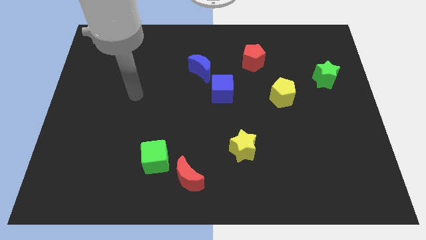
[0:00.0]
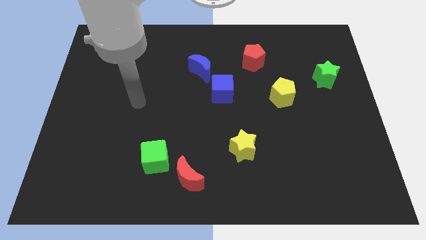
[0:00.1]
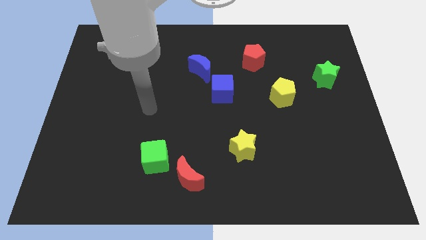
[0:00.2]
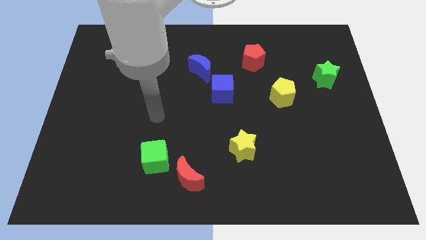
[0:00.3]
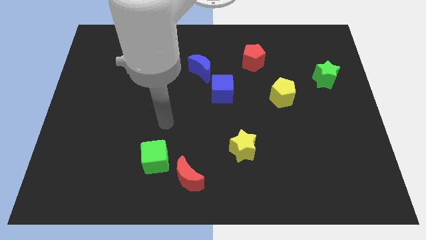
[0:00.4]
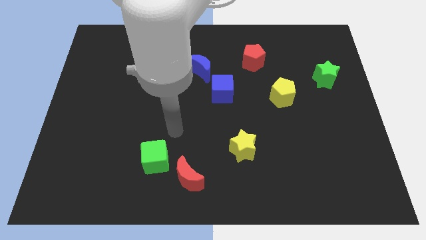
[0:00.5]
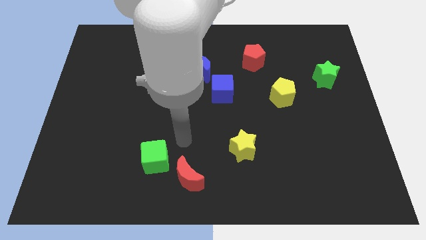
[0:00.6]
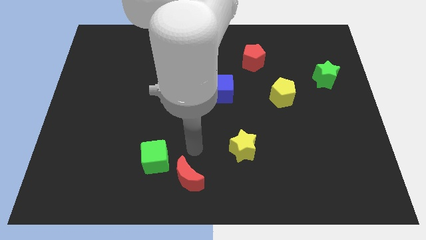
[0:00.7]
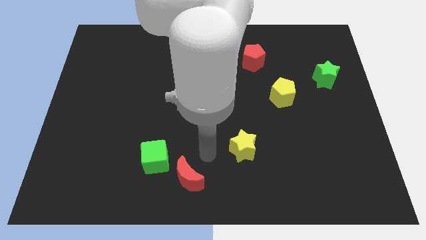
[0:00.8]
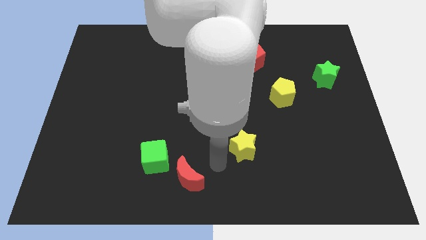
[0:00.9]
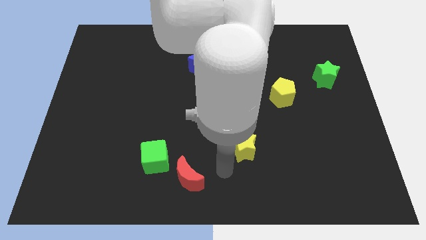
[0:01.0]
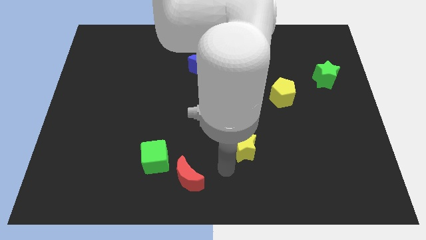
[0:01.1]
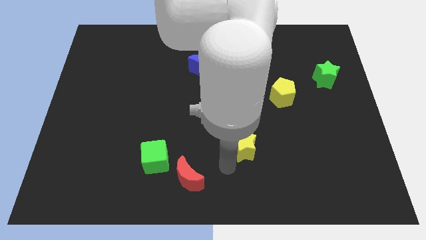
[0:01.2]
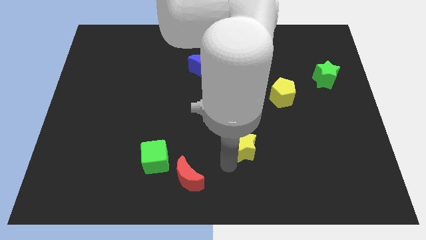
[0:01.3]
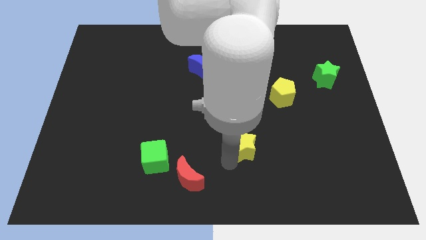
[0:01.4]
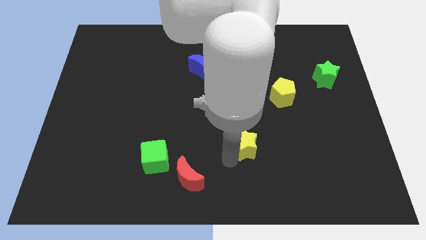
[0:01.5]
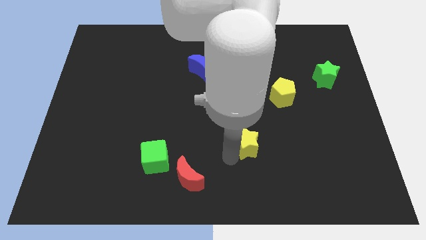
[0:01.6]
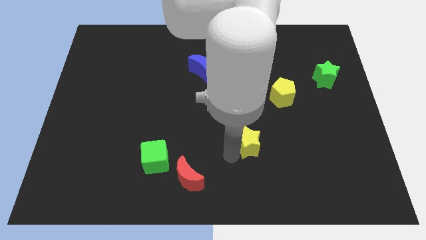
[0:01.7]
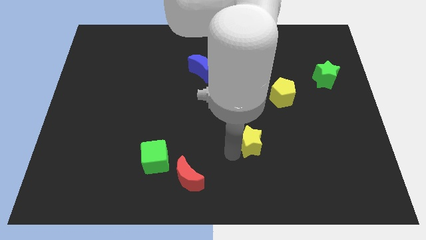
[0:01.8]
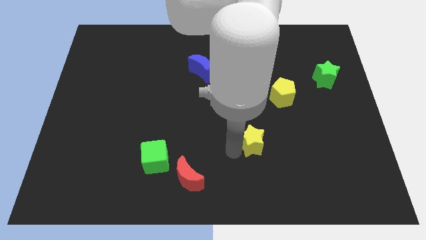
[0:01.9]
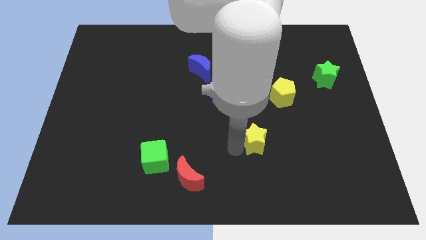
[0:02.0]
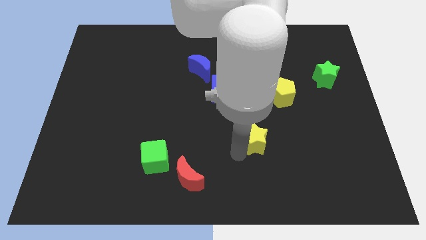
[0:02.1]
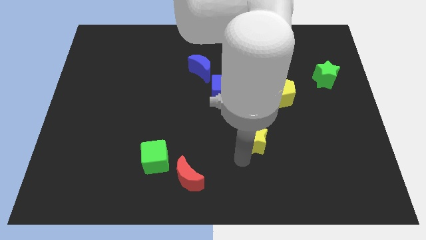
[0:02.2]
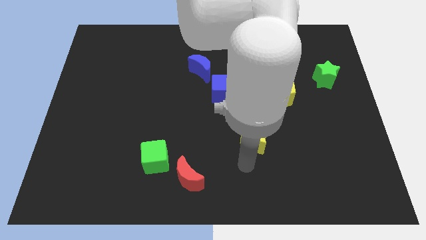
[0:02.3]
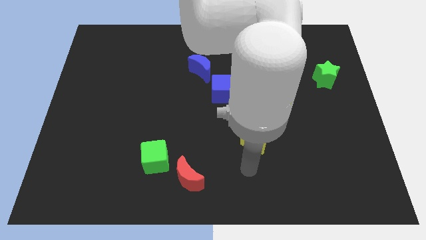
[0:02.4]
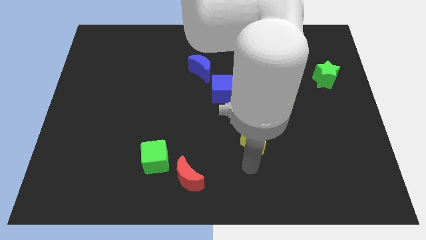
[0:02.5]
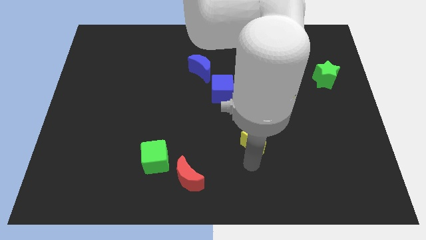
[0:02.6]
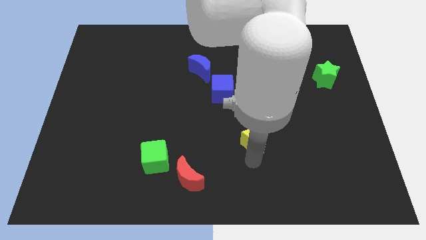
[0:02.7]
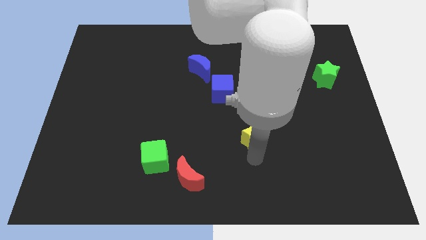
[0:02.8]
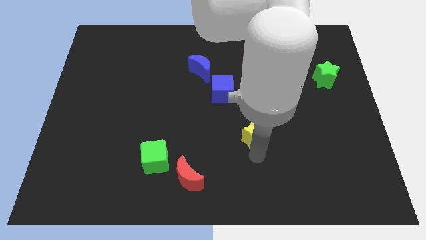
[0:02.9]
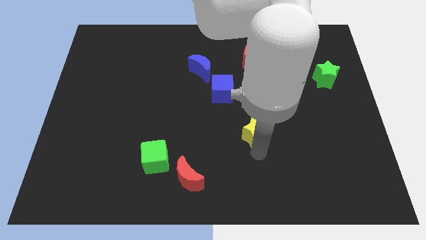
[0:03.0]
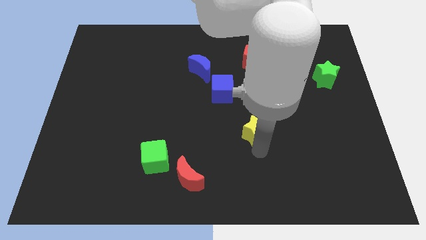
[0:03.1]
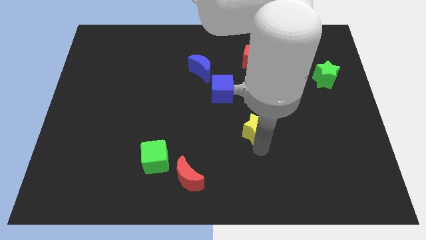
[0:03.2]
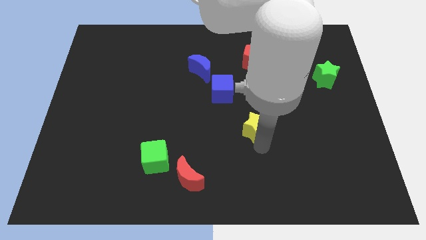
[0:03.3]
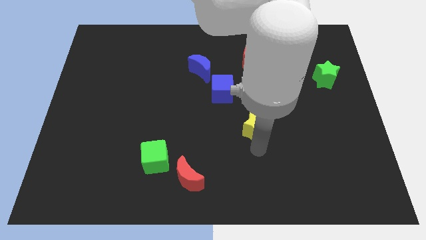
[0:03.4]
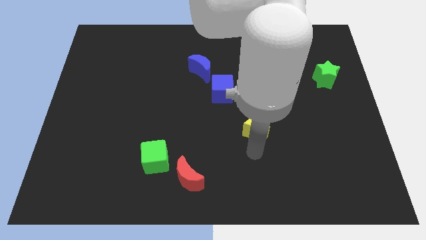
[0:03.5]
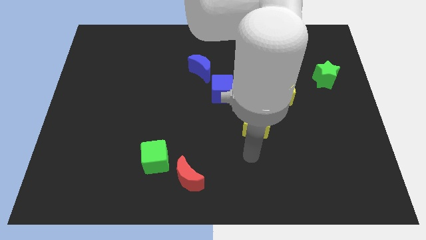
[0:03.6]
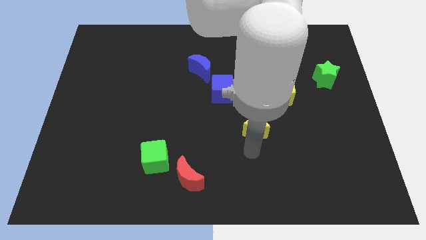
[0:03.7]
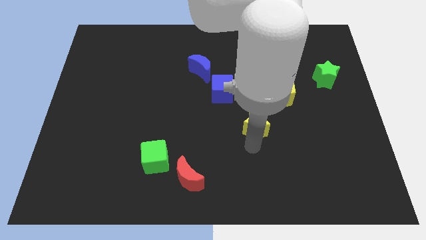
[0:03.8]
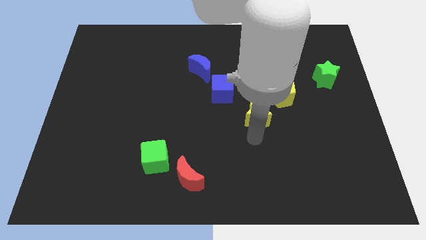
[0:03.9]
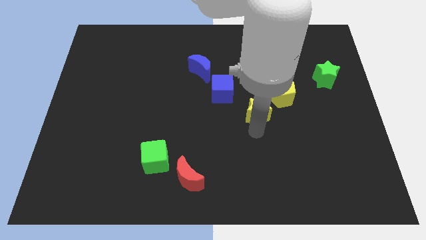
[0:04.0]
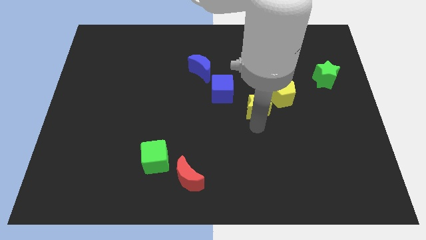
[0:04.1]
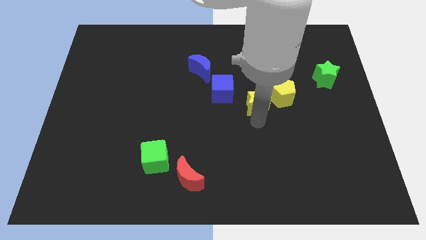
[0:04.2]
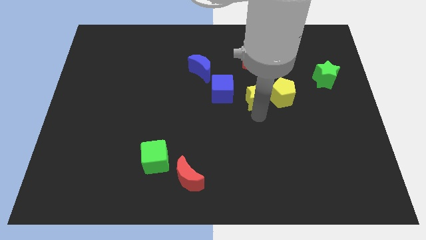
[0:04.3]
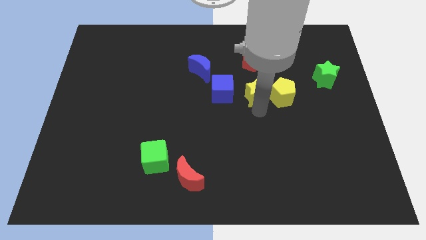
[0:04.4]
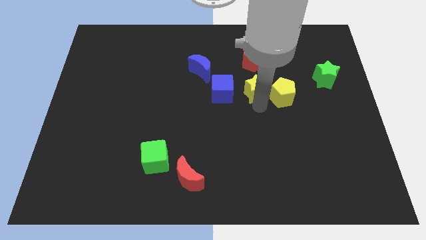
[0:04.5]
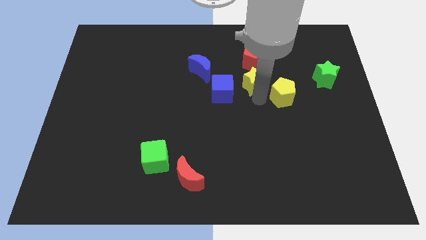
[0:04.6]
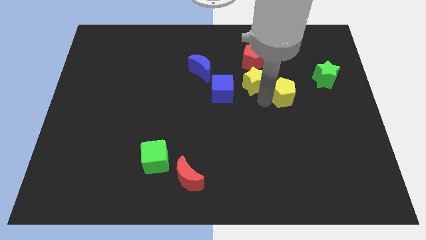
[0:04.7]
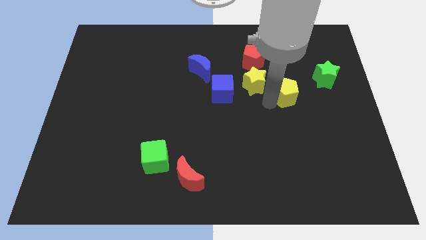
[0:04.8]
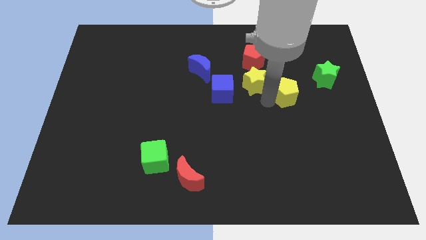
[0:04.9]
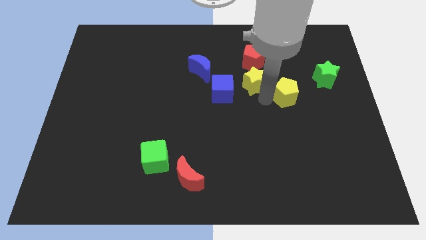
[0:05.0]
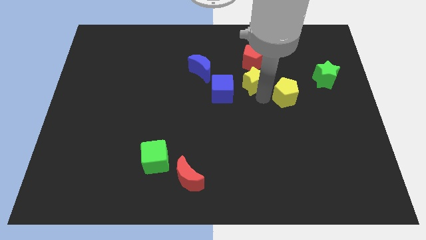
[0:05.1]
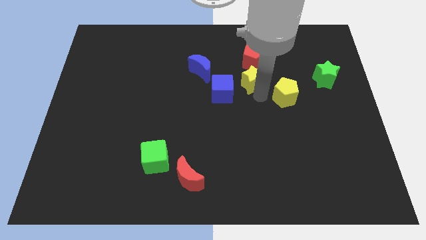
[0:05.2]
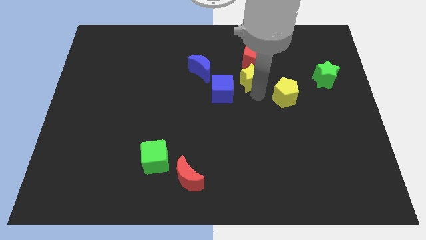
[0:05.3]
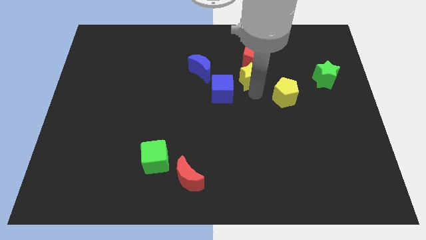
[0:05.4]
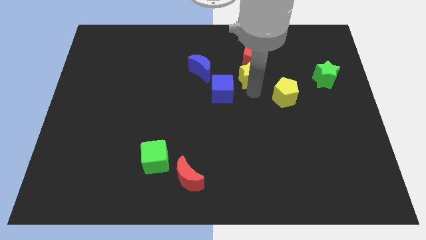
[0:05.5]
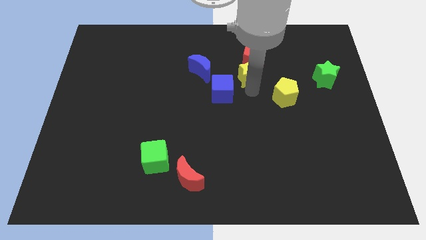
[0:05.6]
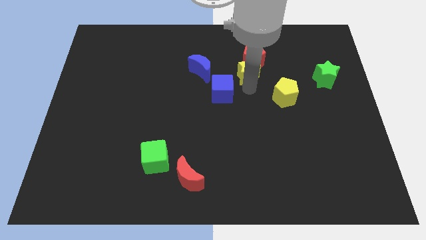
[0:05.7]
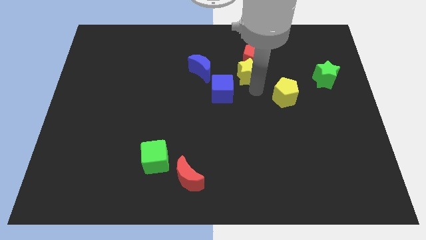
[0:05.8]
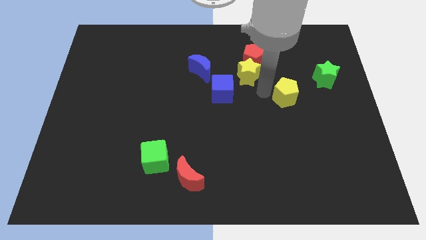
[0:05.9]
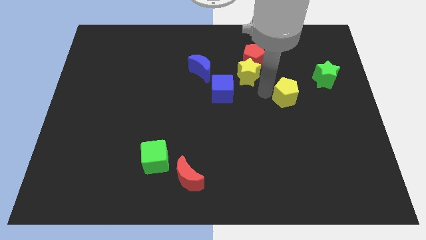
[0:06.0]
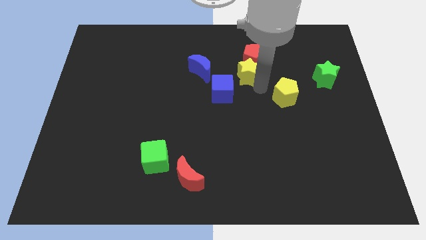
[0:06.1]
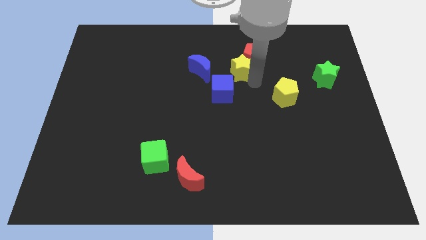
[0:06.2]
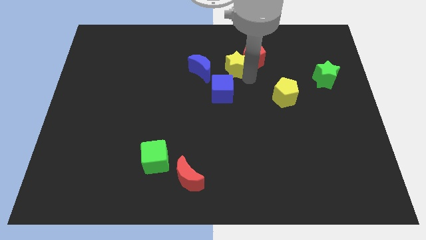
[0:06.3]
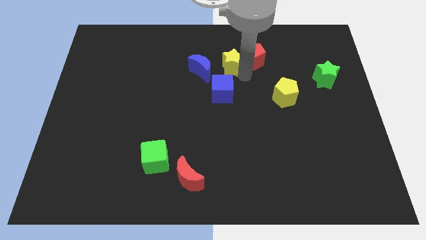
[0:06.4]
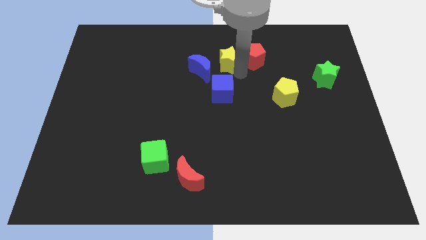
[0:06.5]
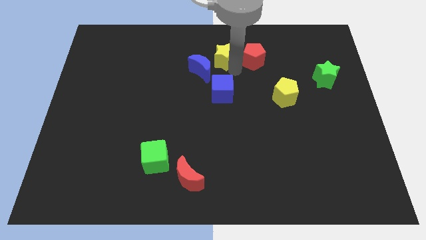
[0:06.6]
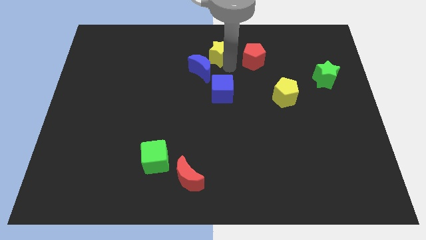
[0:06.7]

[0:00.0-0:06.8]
put the yellow star to the top side
